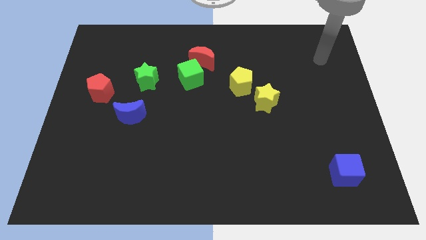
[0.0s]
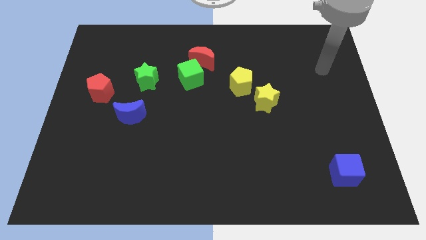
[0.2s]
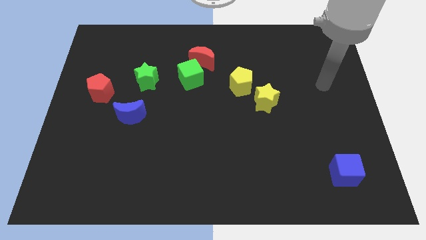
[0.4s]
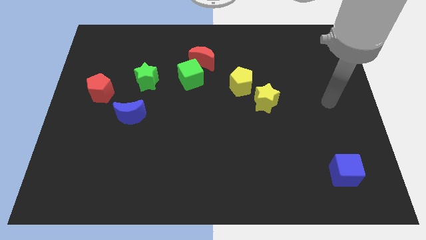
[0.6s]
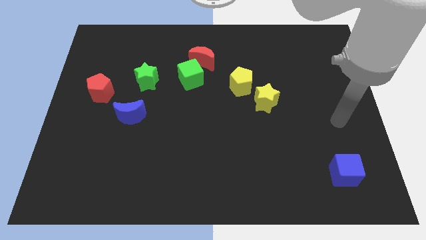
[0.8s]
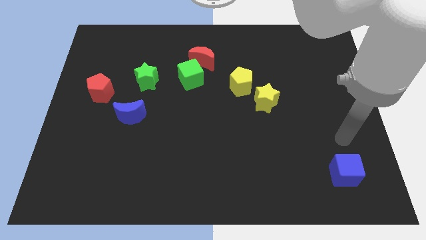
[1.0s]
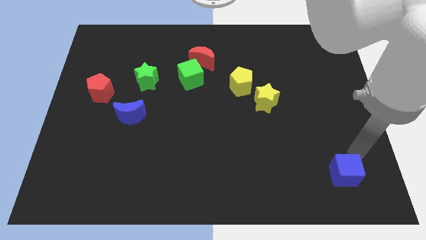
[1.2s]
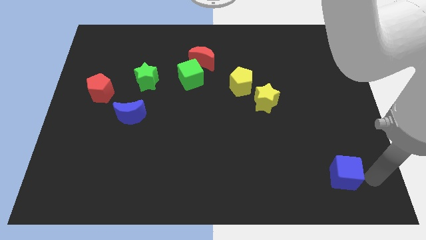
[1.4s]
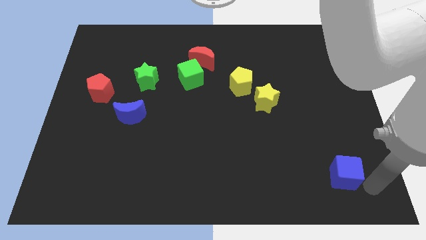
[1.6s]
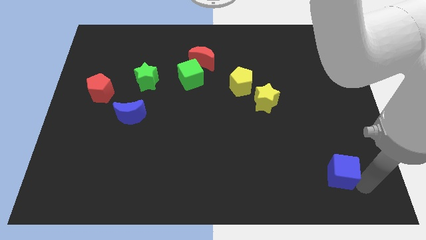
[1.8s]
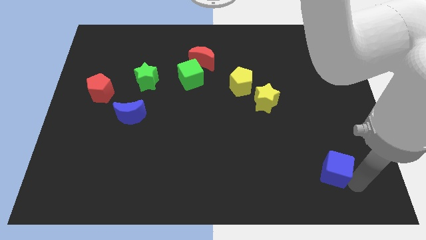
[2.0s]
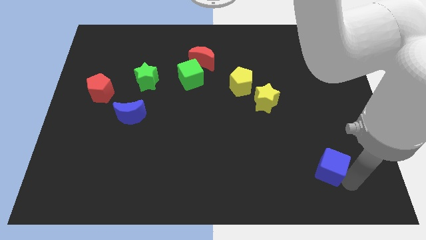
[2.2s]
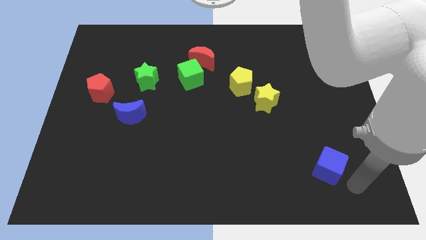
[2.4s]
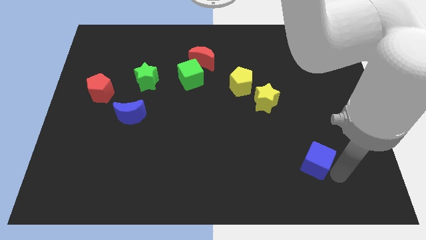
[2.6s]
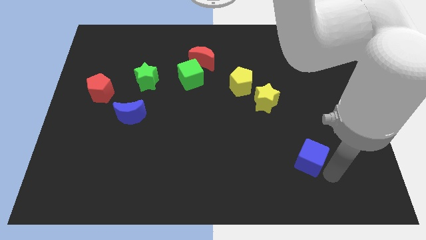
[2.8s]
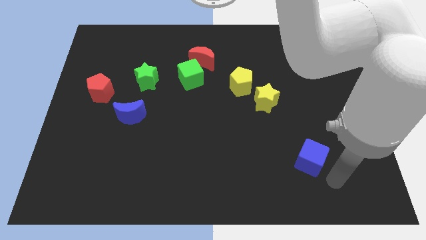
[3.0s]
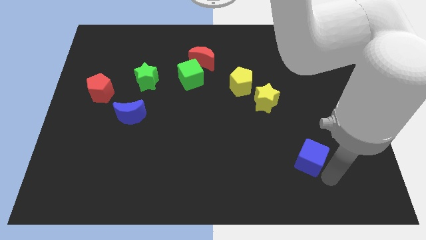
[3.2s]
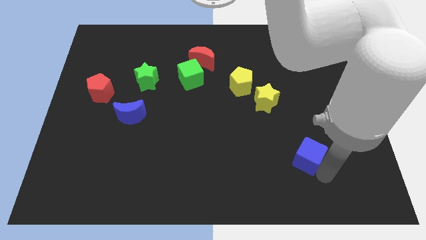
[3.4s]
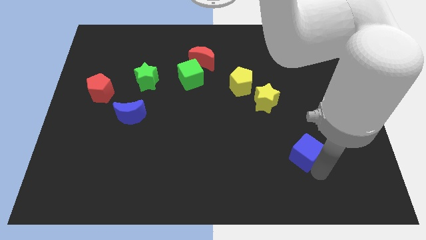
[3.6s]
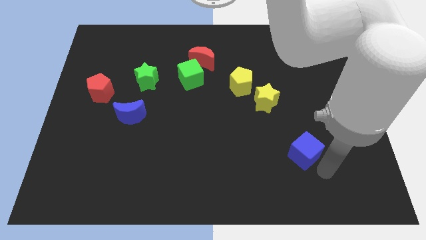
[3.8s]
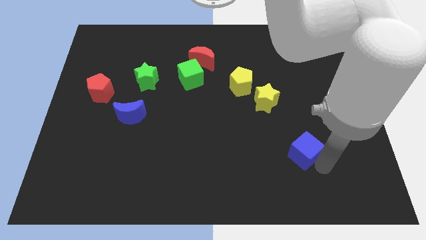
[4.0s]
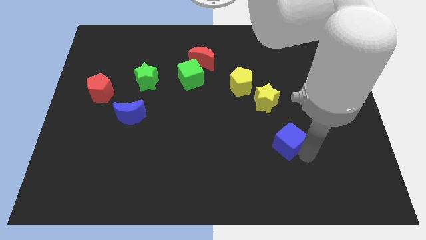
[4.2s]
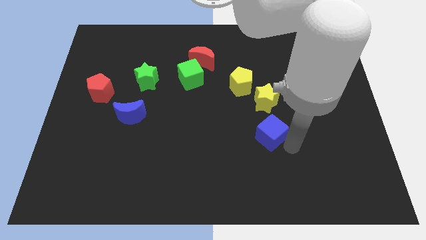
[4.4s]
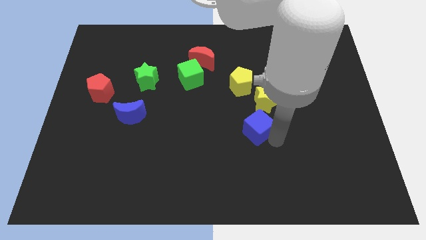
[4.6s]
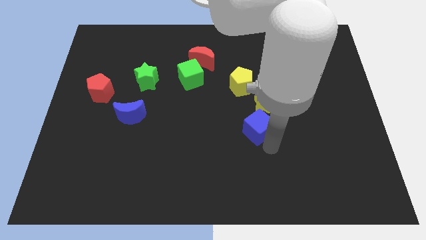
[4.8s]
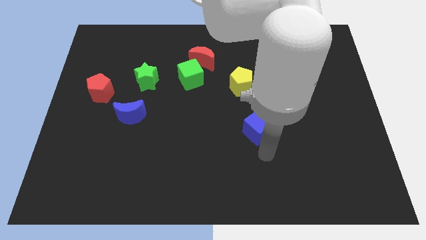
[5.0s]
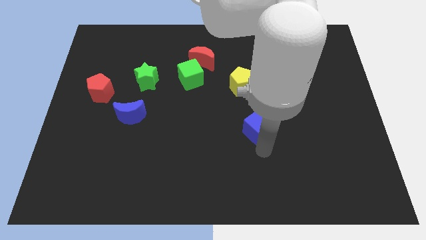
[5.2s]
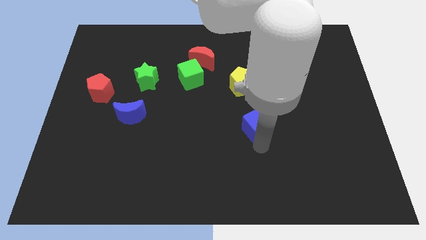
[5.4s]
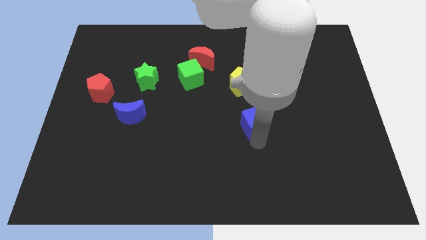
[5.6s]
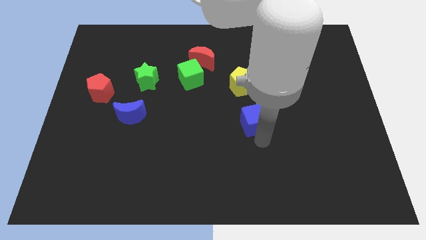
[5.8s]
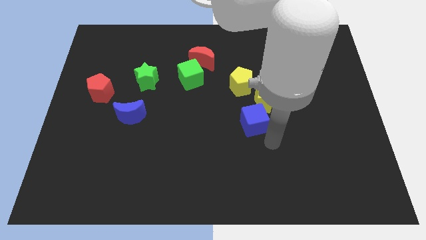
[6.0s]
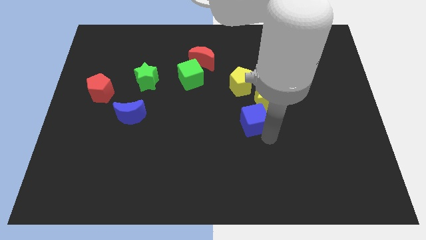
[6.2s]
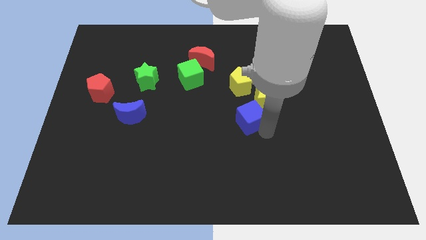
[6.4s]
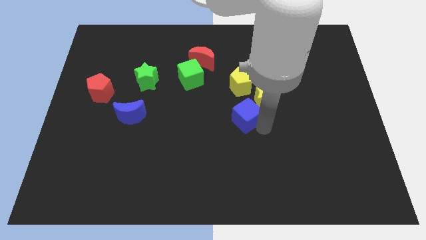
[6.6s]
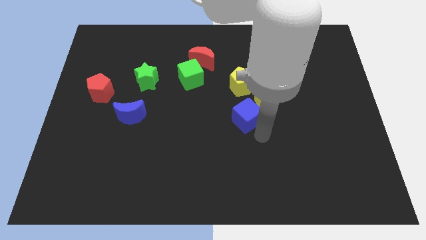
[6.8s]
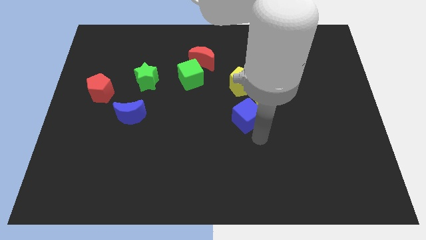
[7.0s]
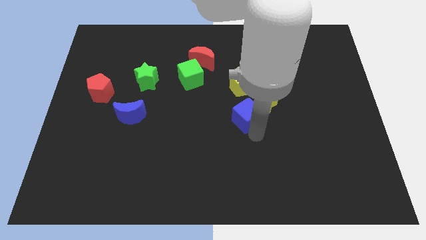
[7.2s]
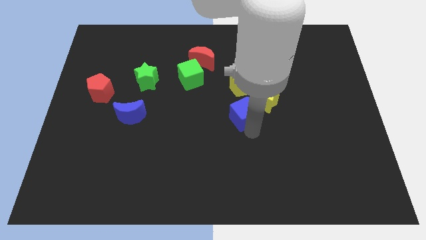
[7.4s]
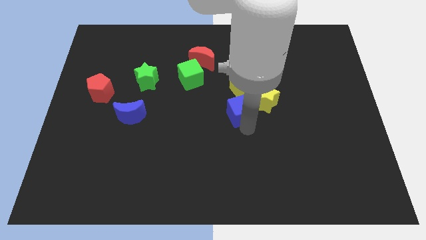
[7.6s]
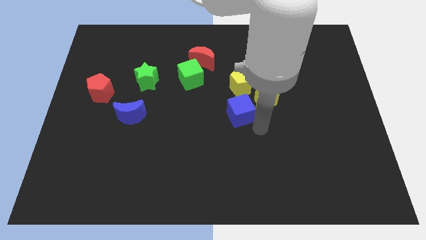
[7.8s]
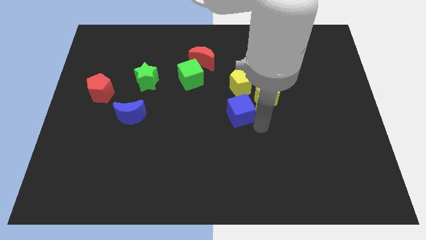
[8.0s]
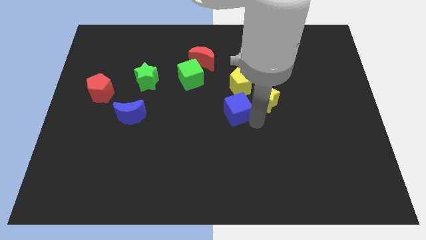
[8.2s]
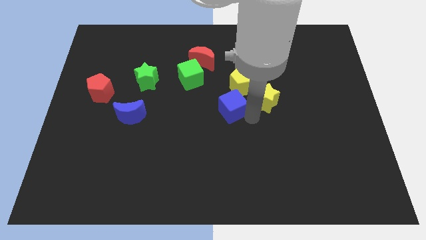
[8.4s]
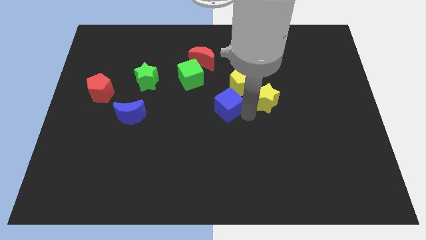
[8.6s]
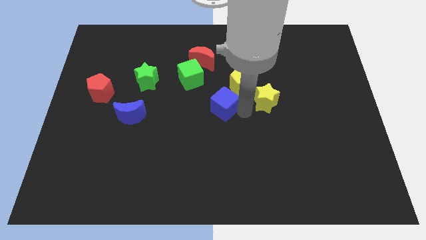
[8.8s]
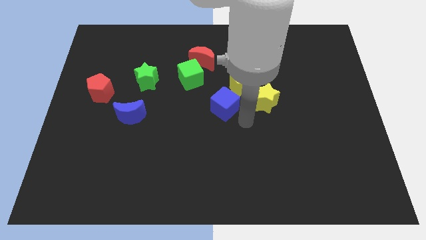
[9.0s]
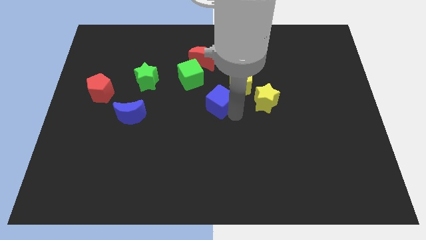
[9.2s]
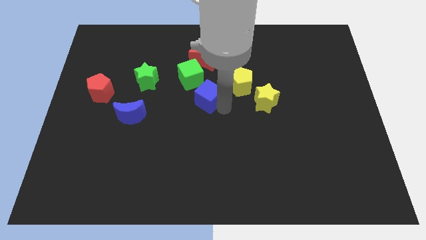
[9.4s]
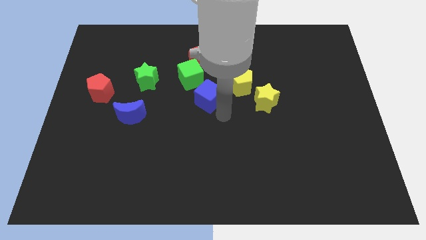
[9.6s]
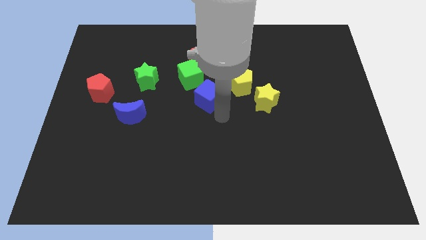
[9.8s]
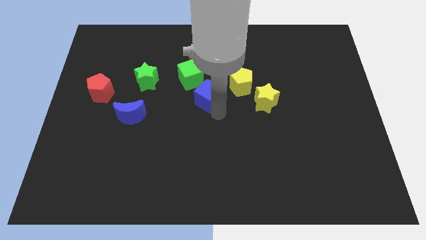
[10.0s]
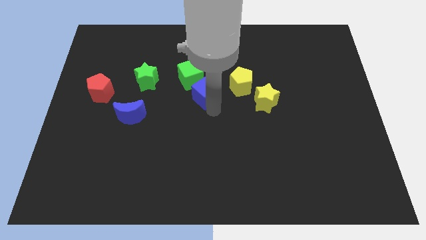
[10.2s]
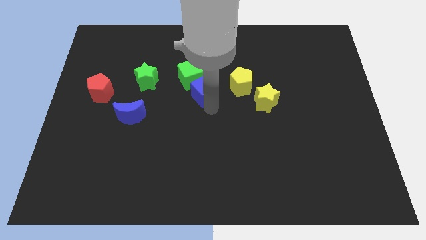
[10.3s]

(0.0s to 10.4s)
put the blue cube close to the green cube

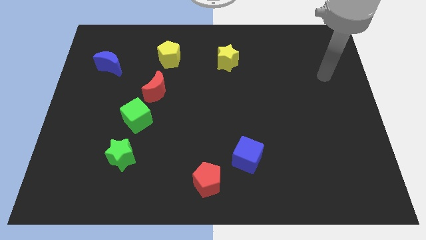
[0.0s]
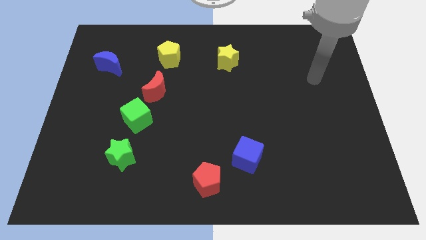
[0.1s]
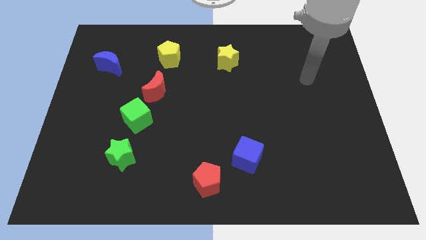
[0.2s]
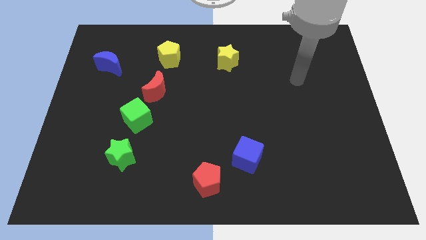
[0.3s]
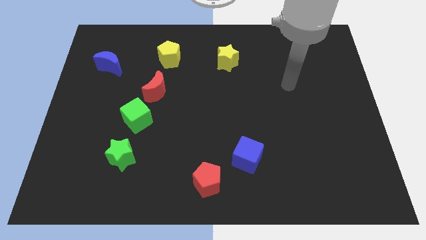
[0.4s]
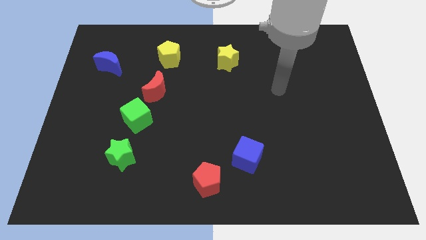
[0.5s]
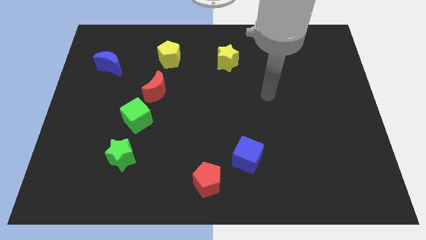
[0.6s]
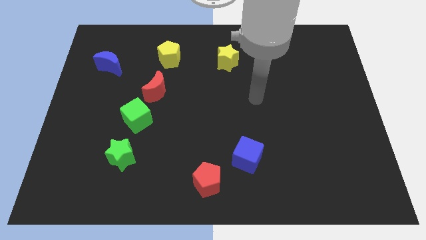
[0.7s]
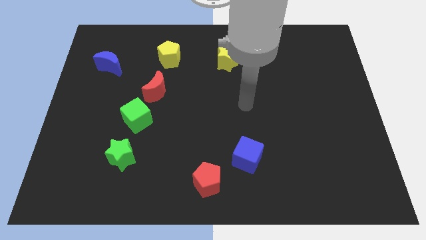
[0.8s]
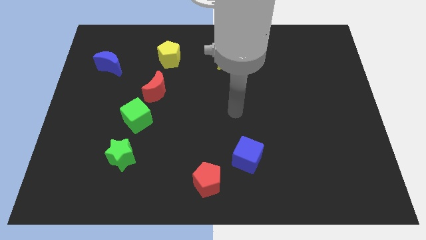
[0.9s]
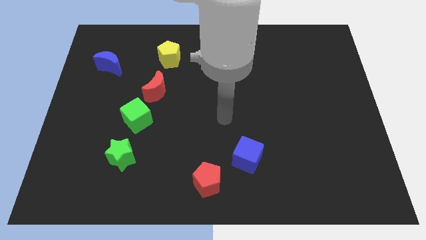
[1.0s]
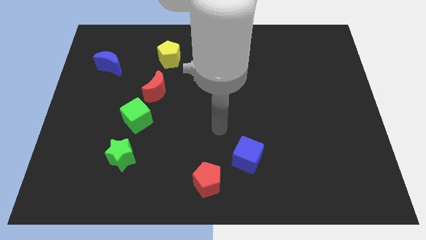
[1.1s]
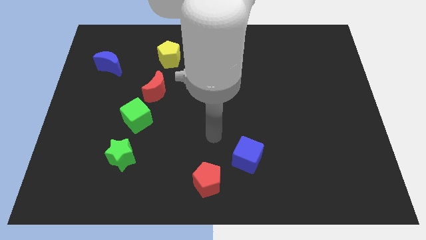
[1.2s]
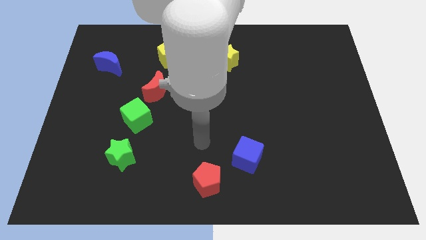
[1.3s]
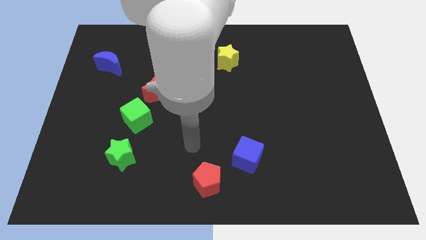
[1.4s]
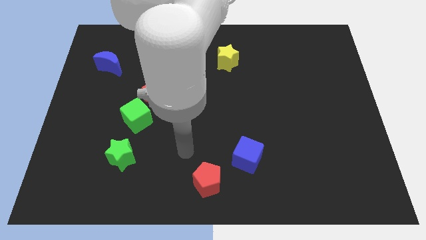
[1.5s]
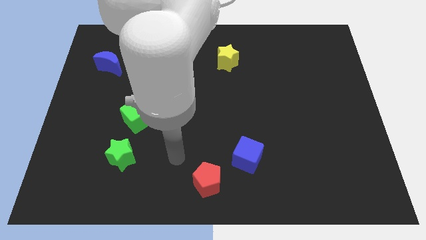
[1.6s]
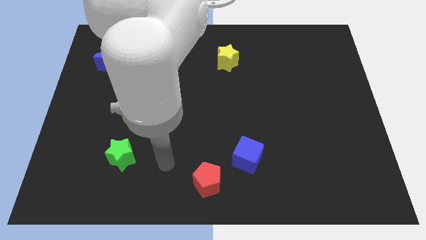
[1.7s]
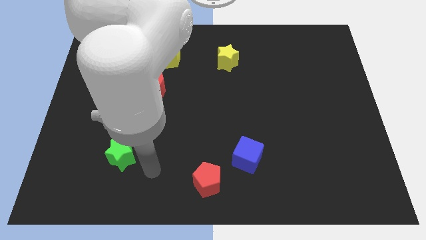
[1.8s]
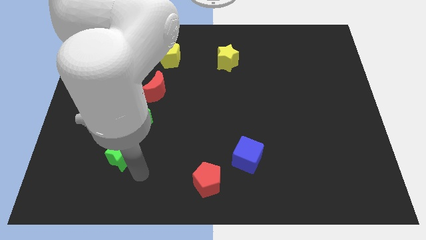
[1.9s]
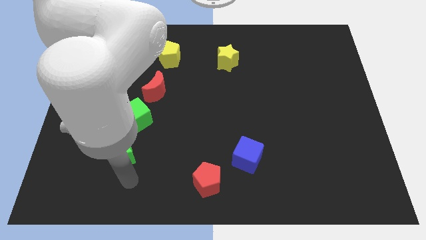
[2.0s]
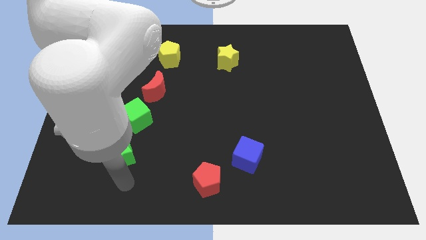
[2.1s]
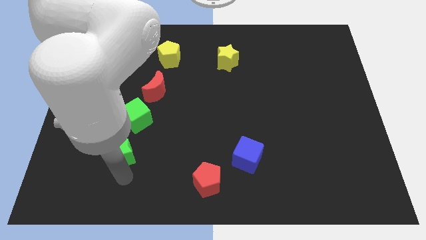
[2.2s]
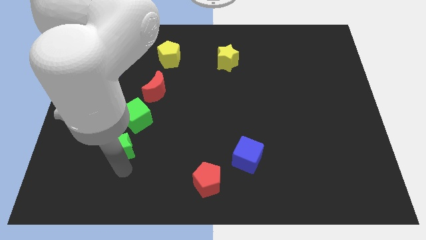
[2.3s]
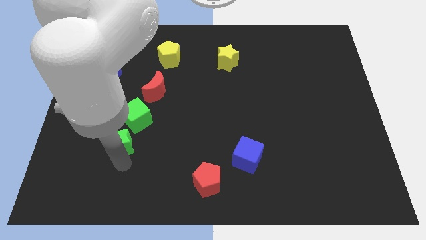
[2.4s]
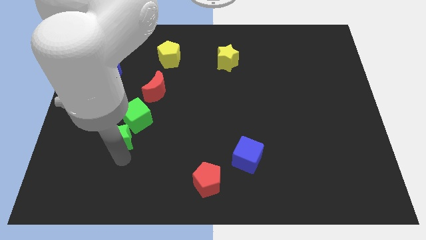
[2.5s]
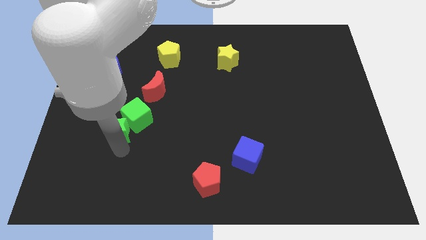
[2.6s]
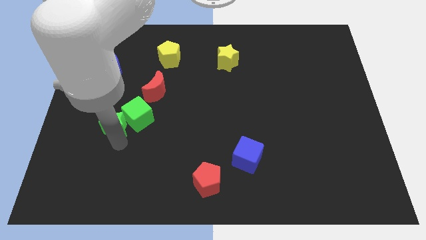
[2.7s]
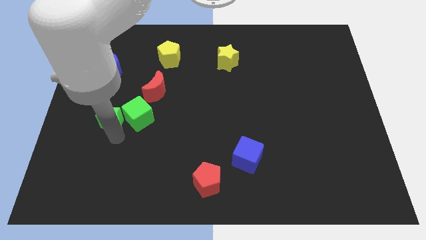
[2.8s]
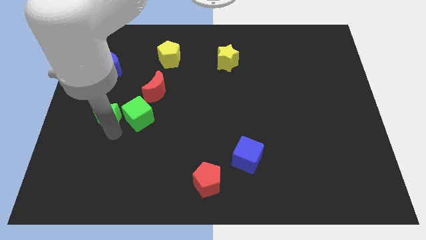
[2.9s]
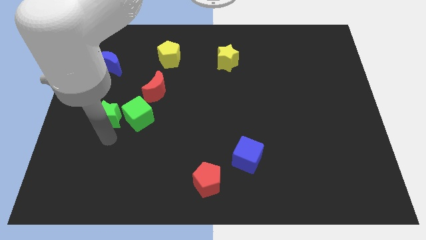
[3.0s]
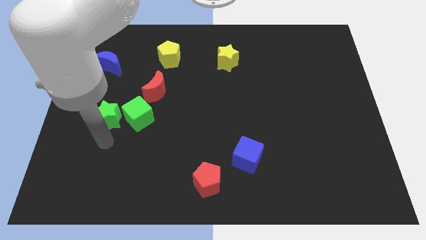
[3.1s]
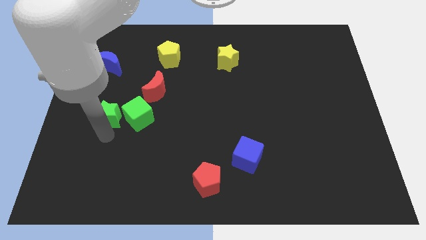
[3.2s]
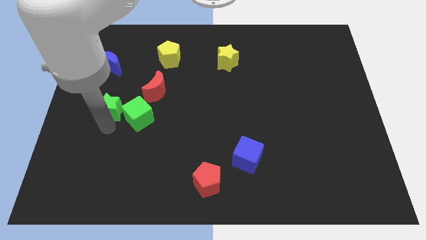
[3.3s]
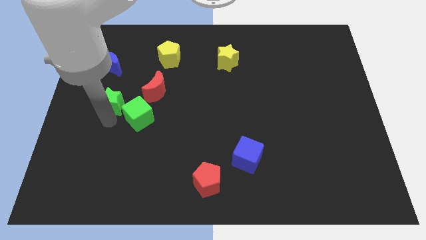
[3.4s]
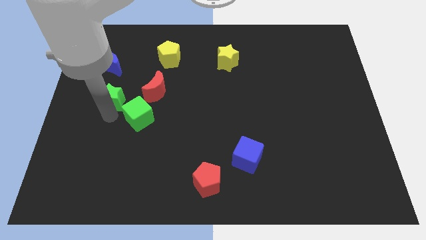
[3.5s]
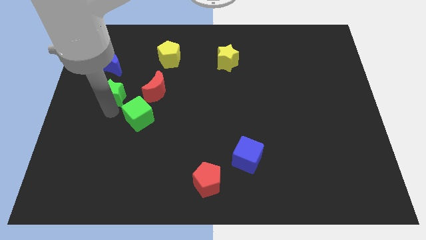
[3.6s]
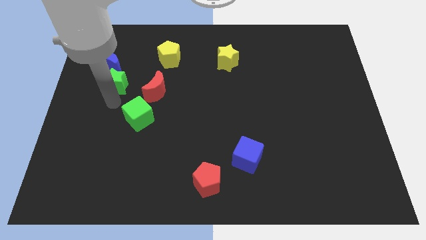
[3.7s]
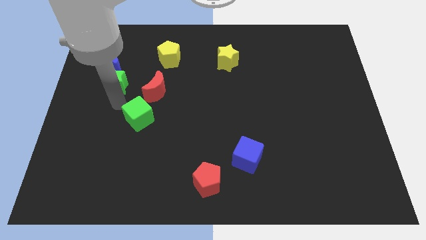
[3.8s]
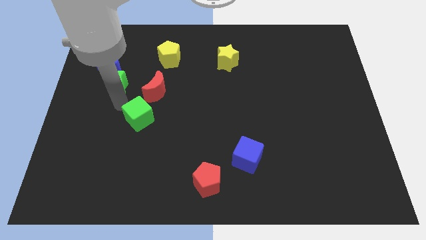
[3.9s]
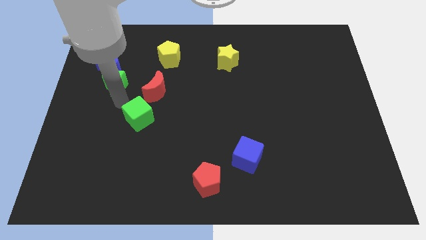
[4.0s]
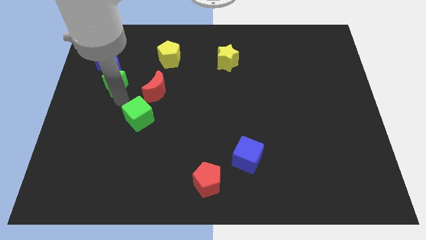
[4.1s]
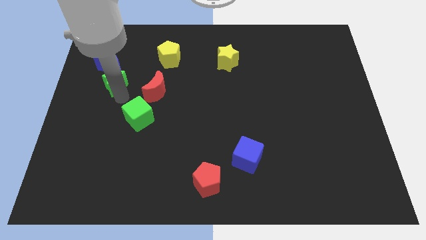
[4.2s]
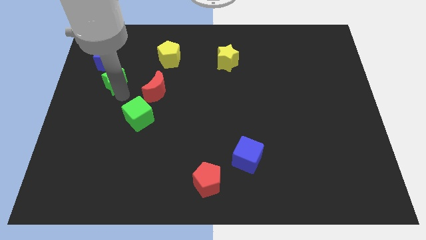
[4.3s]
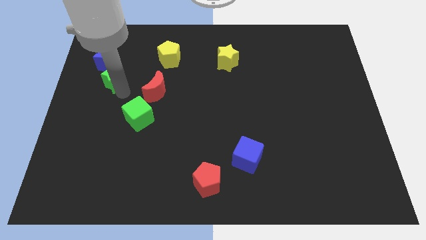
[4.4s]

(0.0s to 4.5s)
slide the green star towards the blue moon
